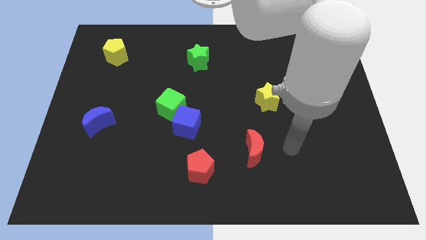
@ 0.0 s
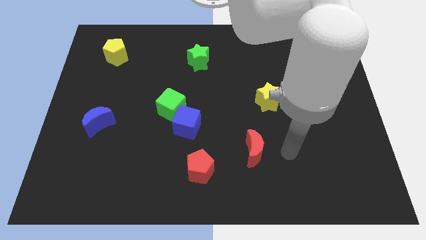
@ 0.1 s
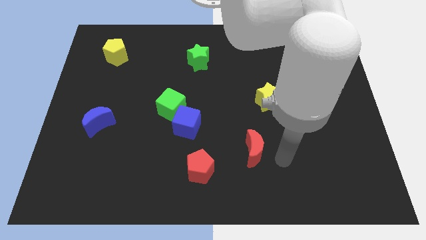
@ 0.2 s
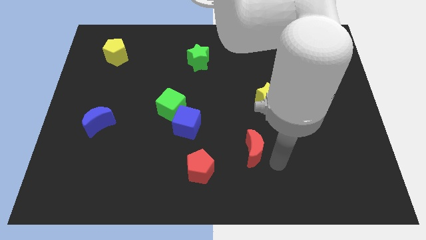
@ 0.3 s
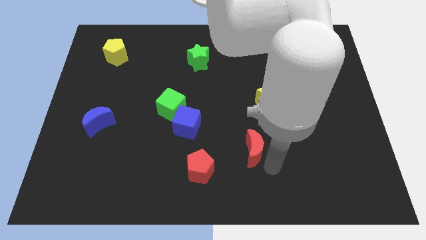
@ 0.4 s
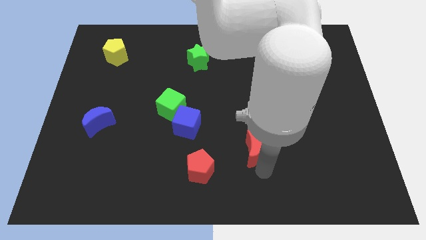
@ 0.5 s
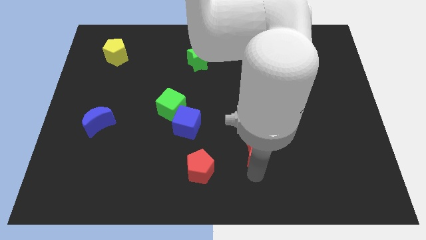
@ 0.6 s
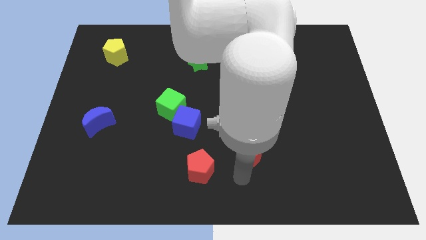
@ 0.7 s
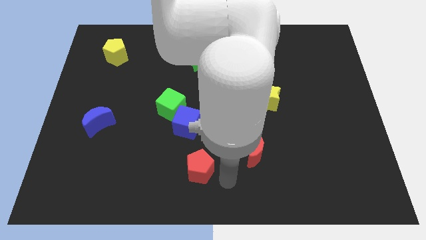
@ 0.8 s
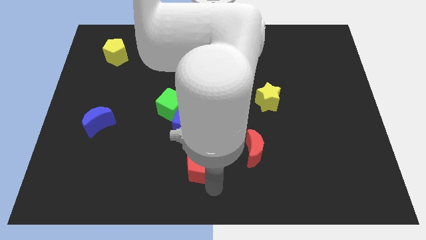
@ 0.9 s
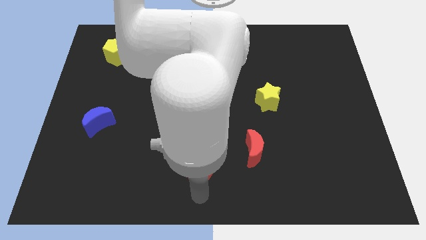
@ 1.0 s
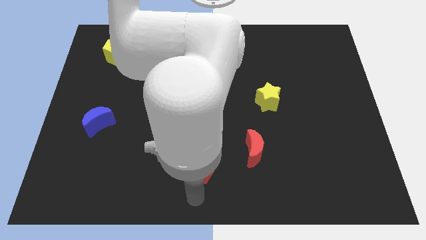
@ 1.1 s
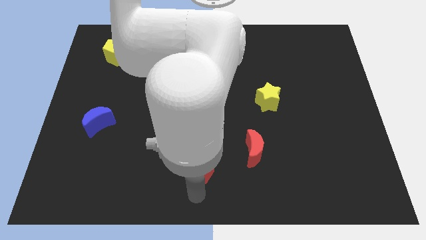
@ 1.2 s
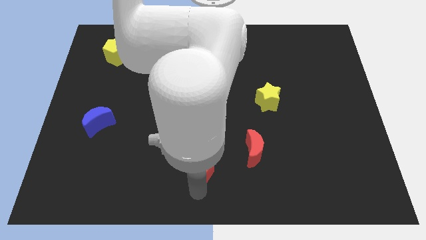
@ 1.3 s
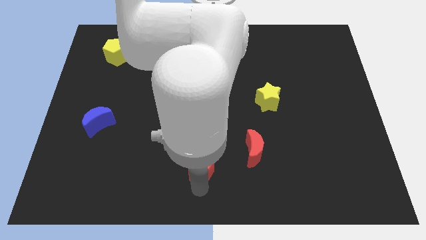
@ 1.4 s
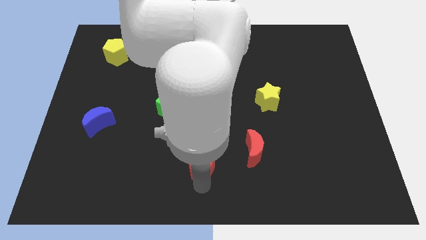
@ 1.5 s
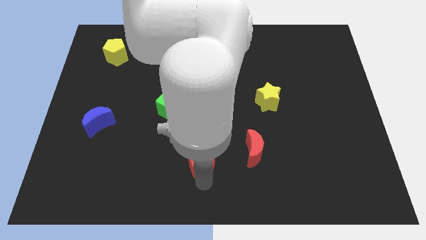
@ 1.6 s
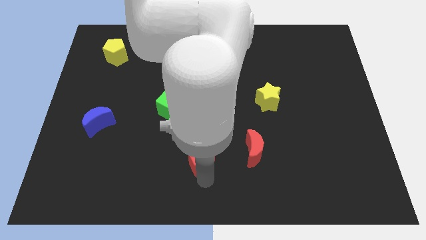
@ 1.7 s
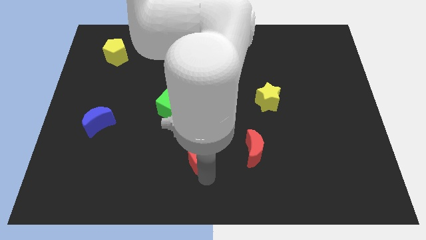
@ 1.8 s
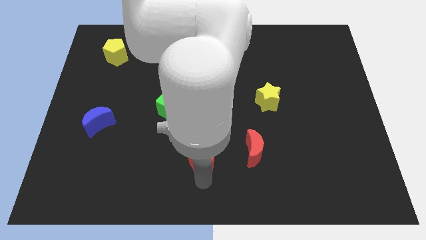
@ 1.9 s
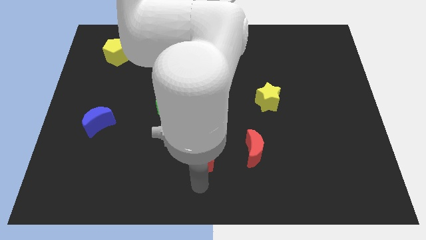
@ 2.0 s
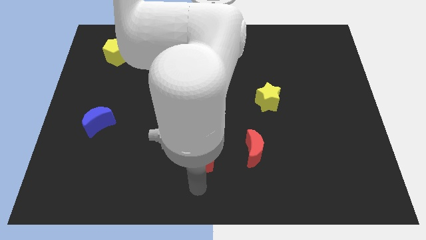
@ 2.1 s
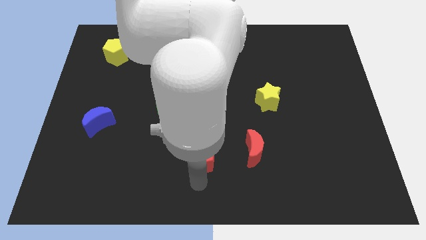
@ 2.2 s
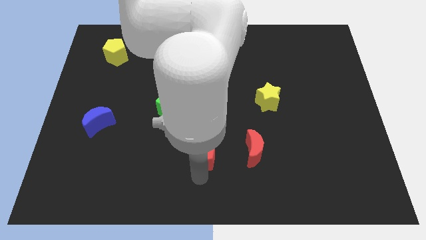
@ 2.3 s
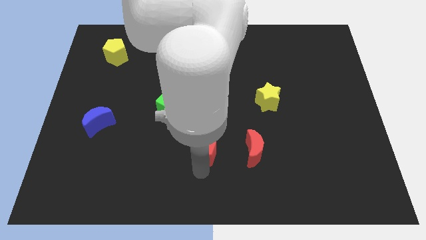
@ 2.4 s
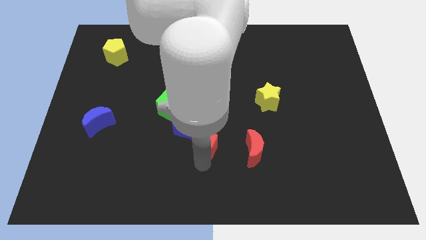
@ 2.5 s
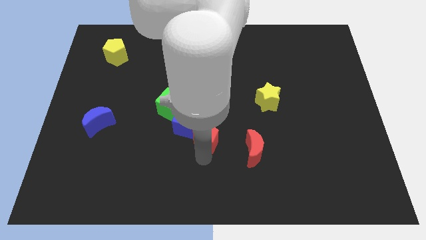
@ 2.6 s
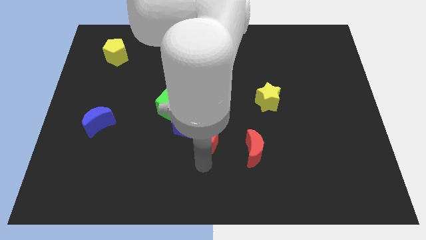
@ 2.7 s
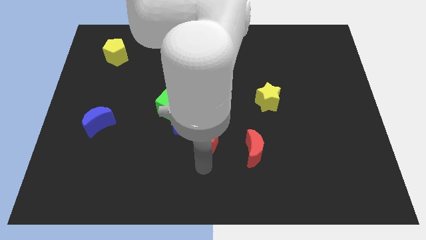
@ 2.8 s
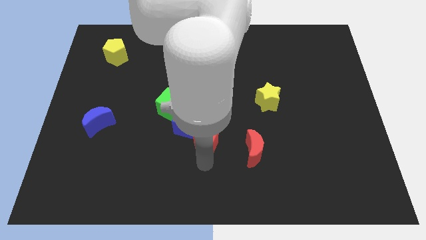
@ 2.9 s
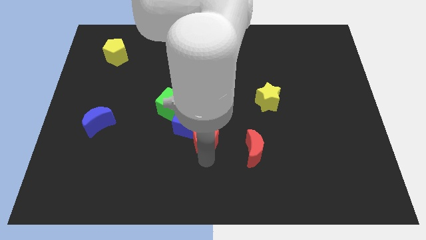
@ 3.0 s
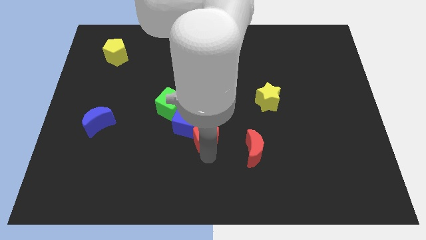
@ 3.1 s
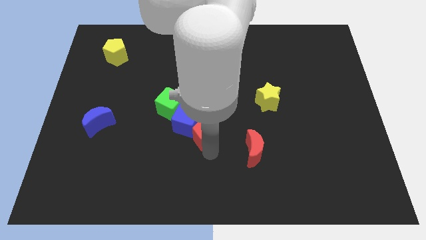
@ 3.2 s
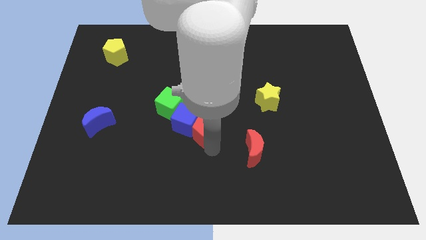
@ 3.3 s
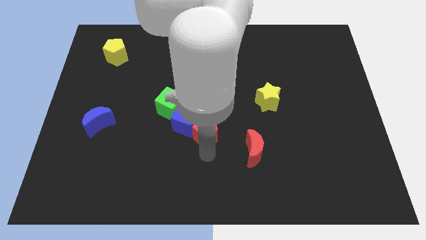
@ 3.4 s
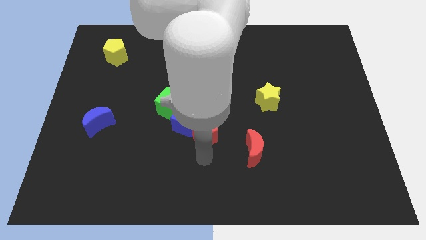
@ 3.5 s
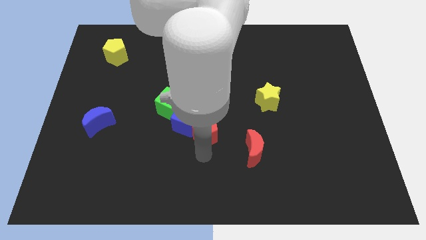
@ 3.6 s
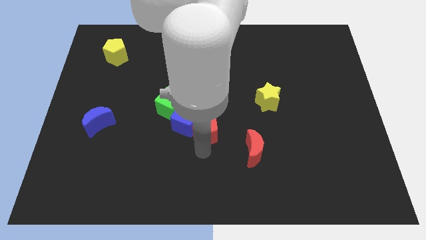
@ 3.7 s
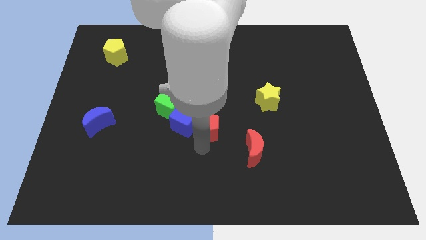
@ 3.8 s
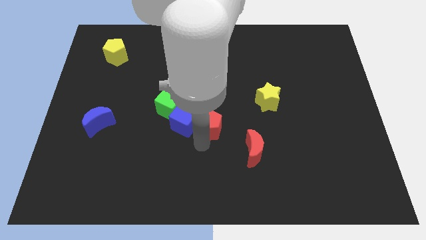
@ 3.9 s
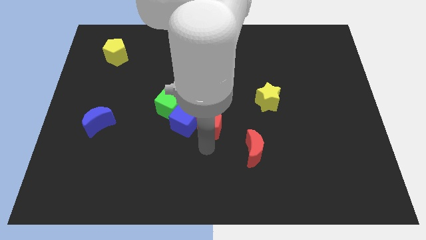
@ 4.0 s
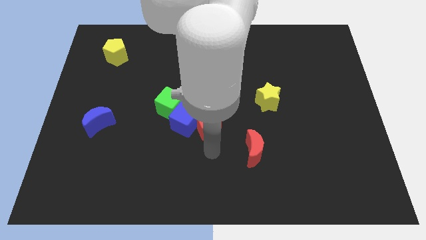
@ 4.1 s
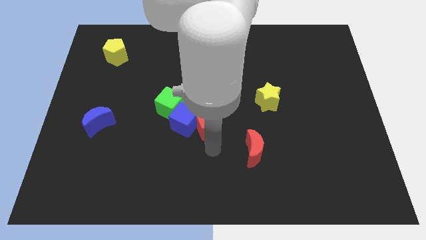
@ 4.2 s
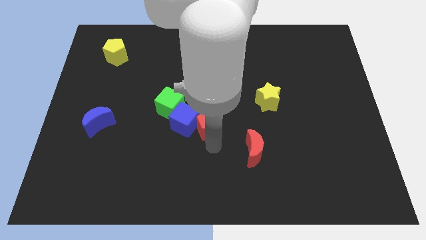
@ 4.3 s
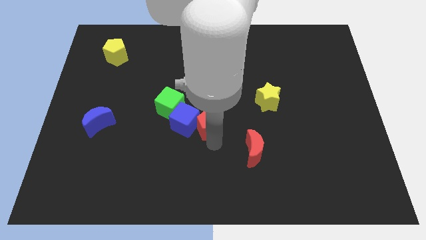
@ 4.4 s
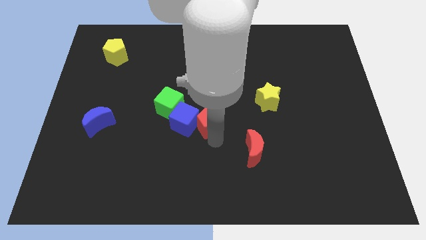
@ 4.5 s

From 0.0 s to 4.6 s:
move the red pentagon to the top right of the blue cube

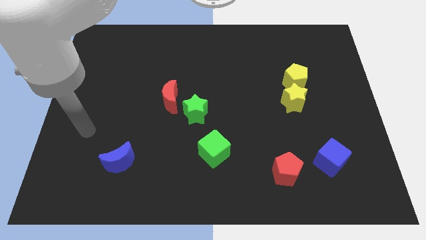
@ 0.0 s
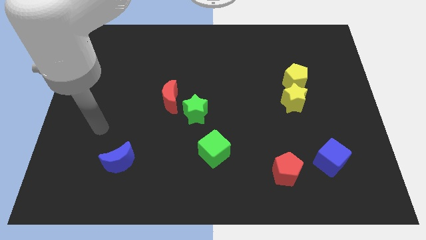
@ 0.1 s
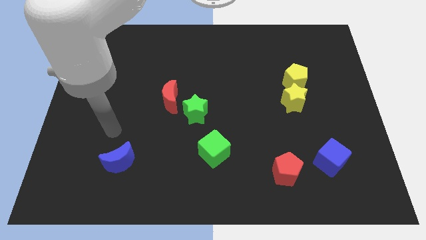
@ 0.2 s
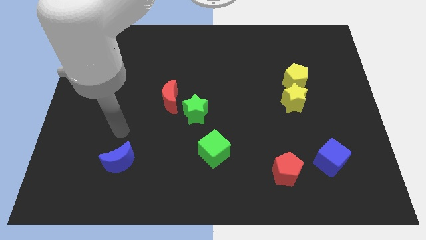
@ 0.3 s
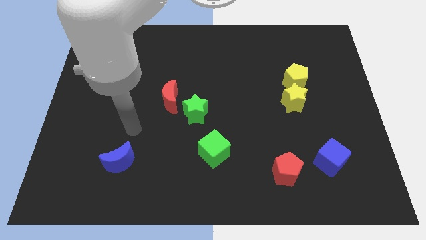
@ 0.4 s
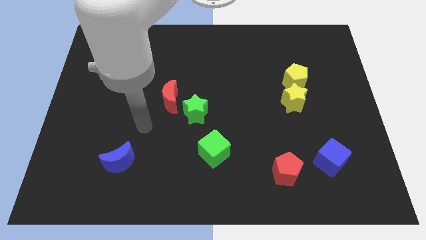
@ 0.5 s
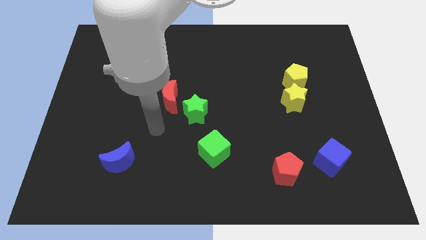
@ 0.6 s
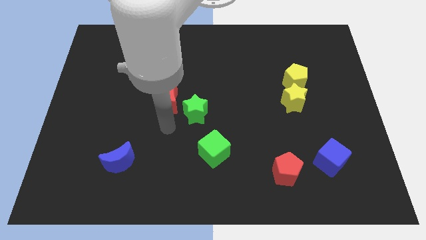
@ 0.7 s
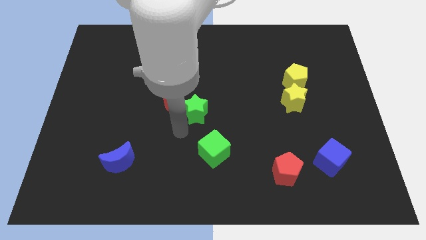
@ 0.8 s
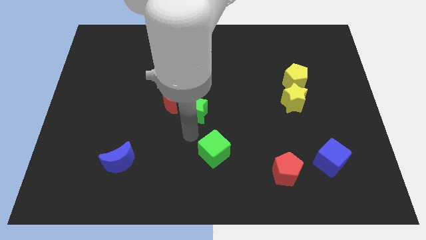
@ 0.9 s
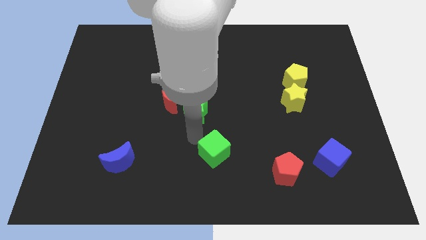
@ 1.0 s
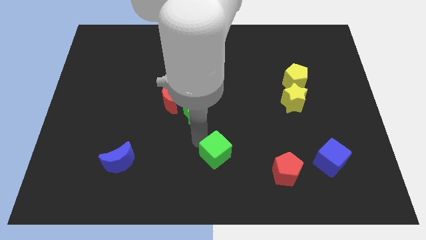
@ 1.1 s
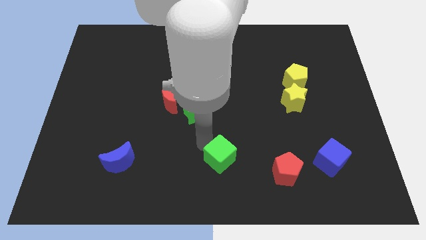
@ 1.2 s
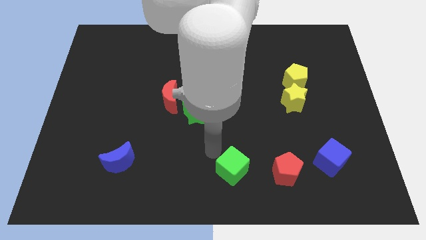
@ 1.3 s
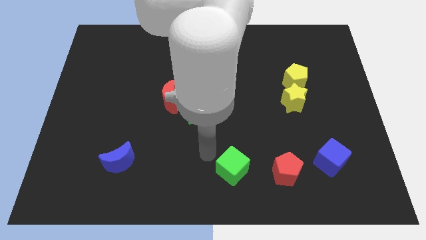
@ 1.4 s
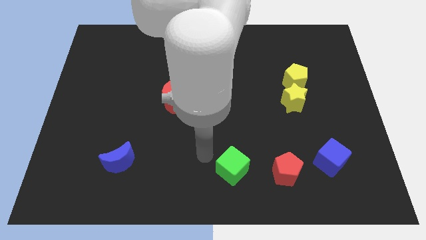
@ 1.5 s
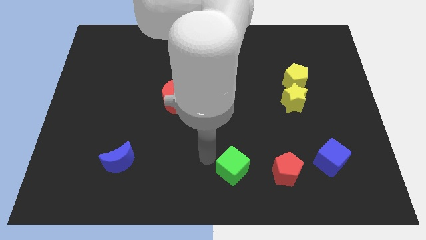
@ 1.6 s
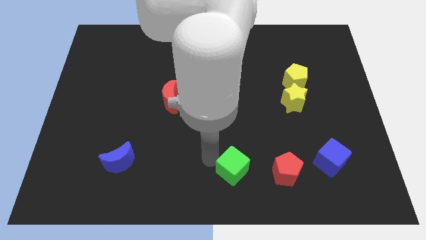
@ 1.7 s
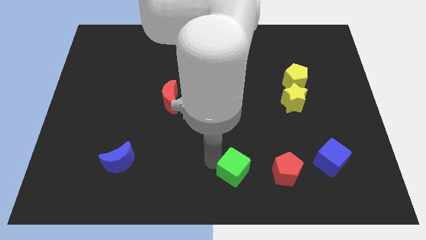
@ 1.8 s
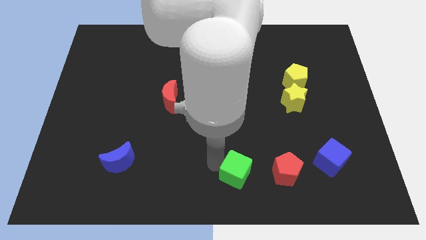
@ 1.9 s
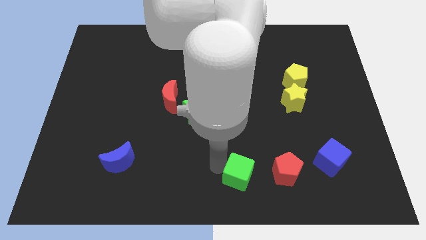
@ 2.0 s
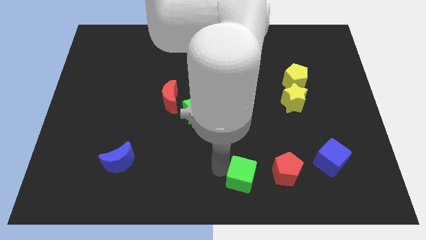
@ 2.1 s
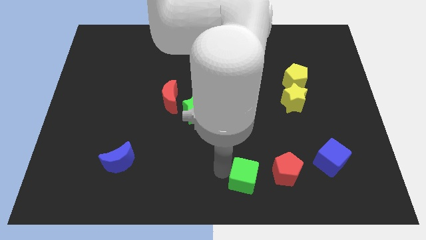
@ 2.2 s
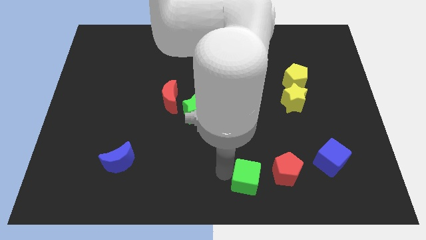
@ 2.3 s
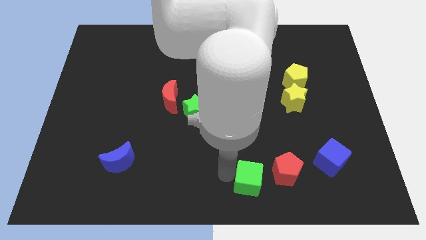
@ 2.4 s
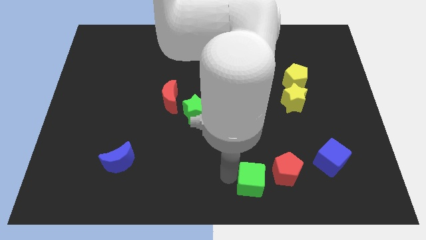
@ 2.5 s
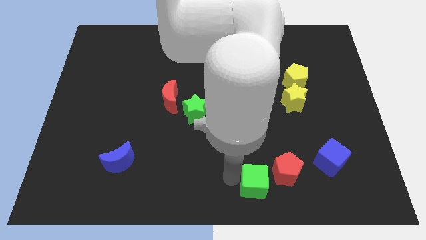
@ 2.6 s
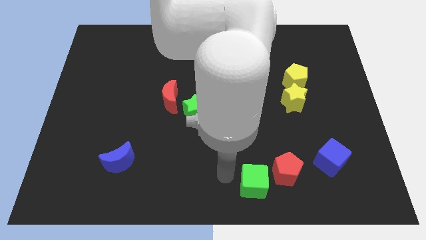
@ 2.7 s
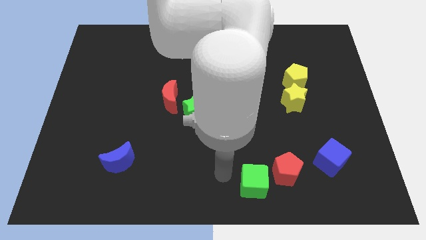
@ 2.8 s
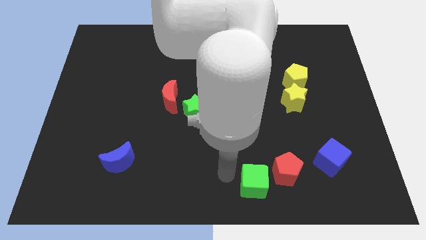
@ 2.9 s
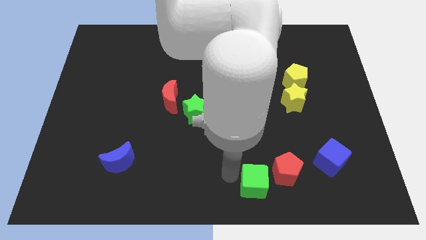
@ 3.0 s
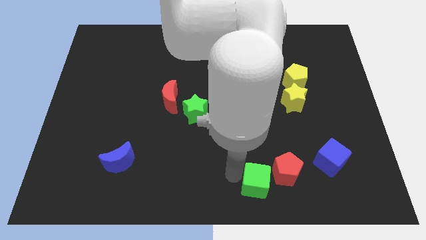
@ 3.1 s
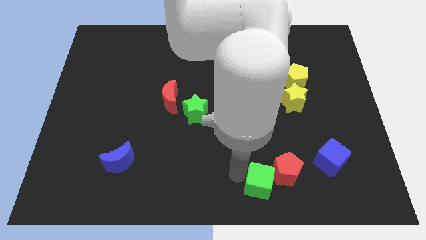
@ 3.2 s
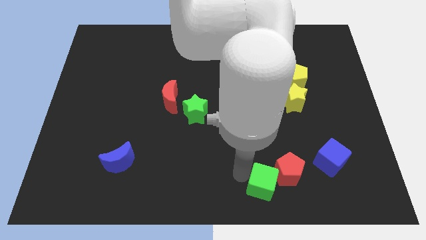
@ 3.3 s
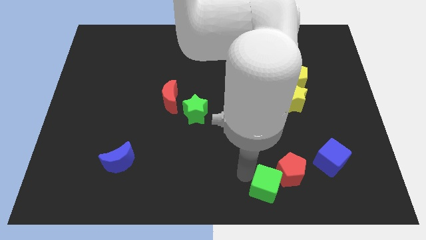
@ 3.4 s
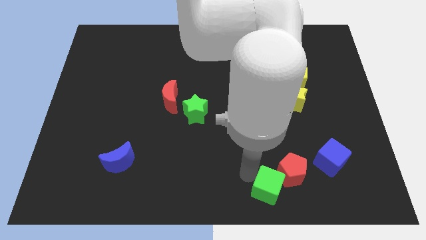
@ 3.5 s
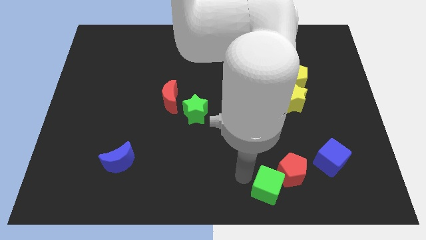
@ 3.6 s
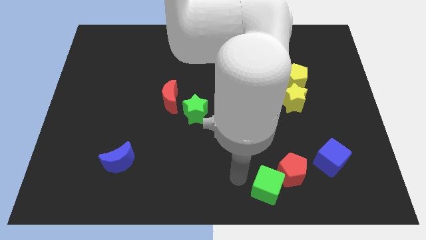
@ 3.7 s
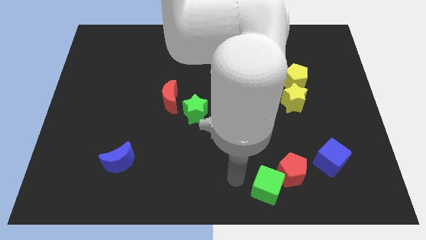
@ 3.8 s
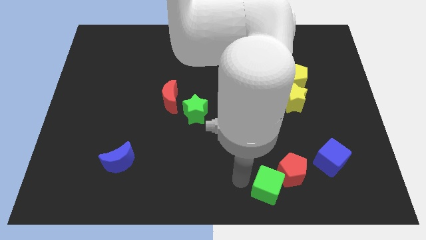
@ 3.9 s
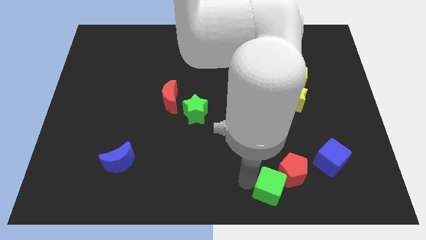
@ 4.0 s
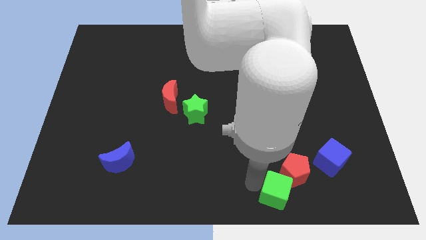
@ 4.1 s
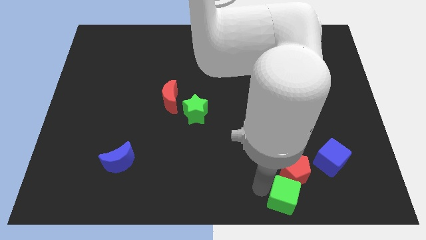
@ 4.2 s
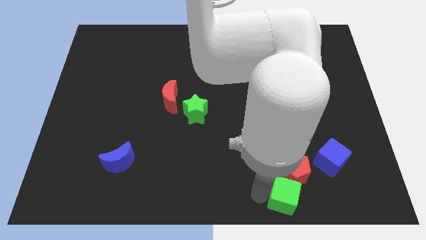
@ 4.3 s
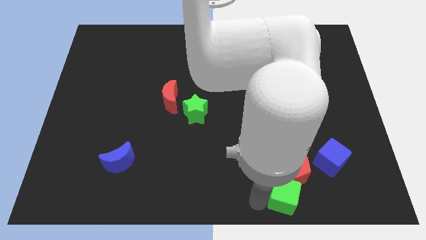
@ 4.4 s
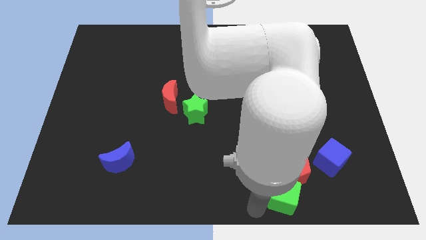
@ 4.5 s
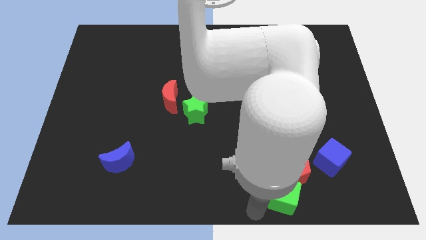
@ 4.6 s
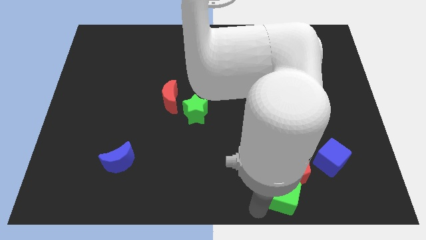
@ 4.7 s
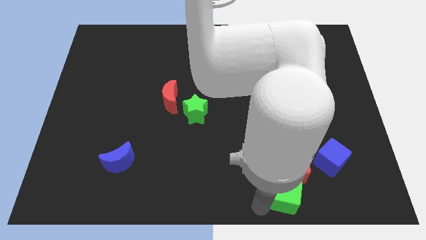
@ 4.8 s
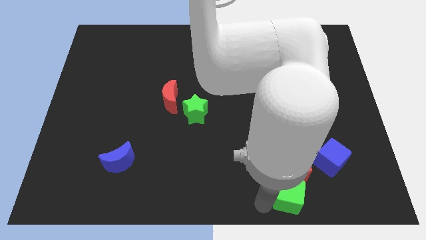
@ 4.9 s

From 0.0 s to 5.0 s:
put the green cube to the bottom left of the blue cube
